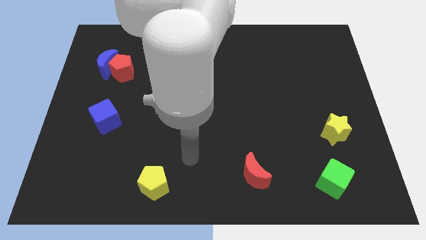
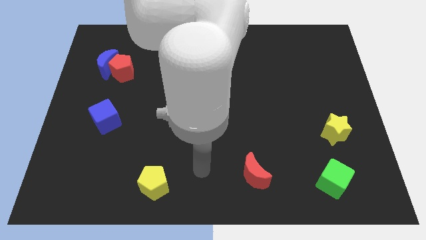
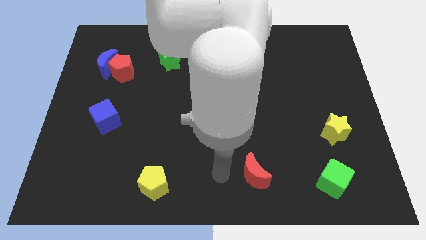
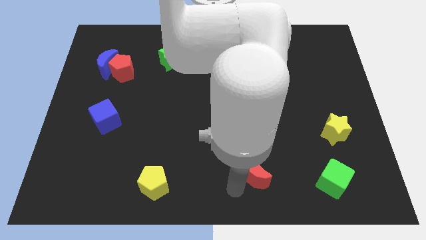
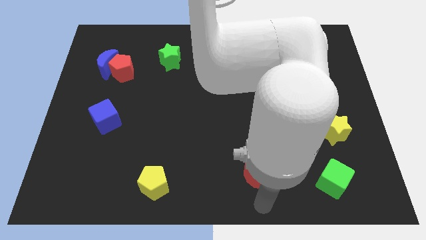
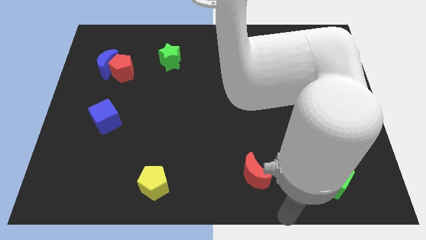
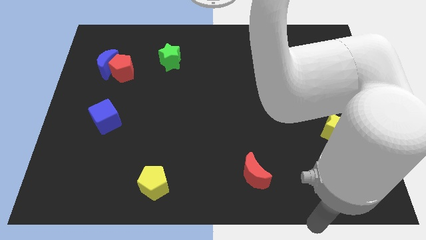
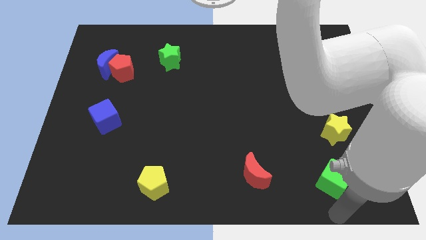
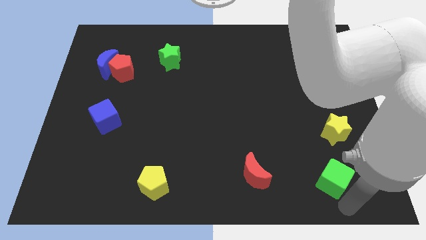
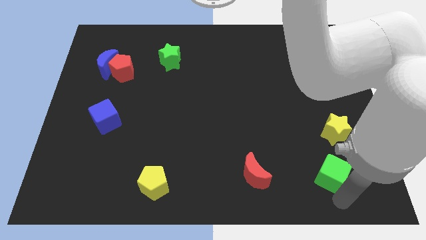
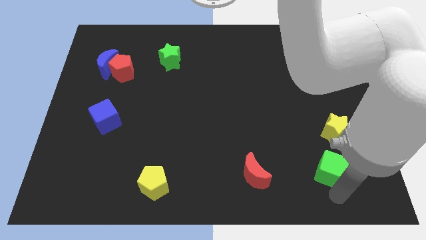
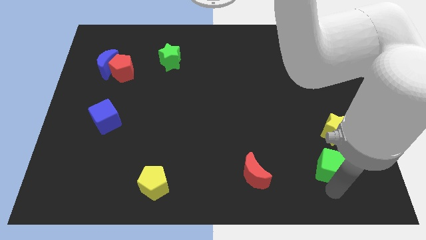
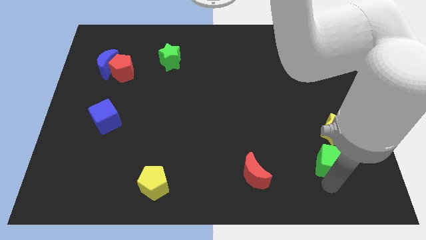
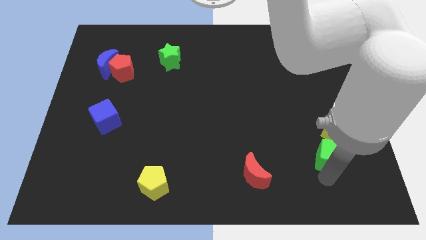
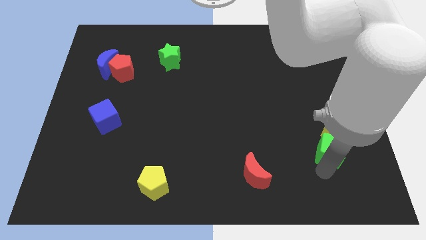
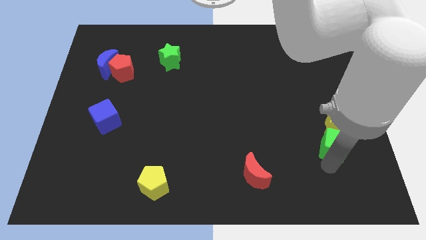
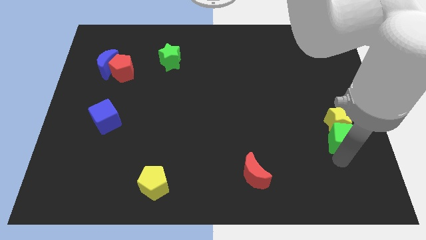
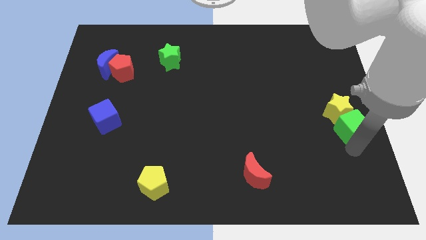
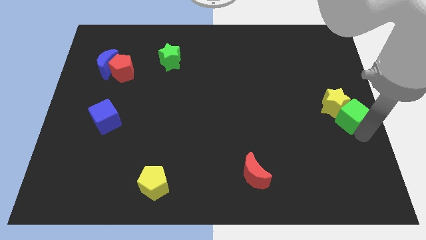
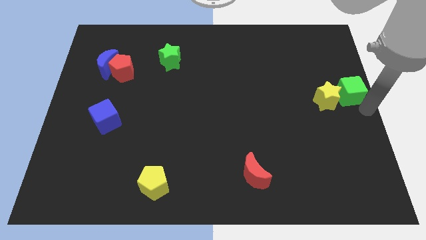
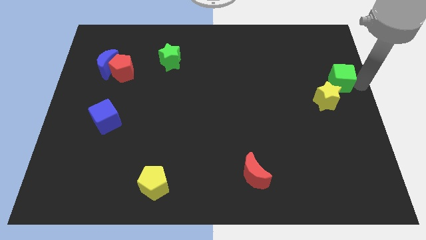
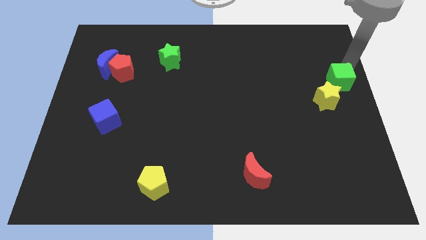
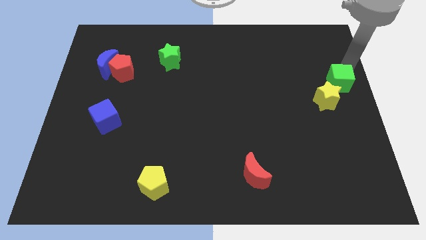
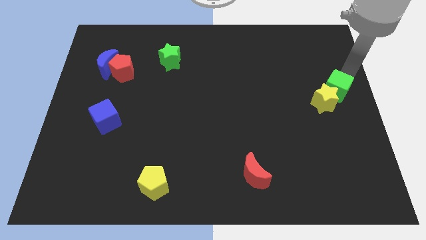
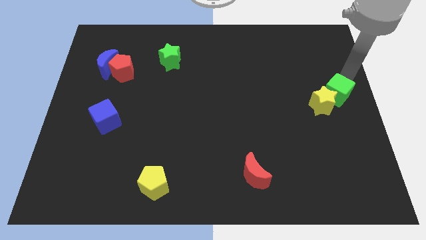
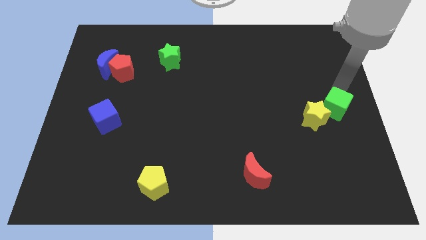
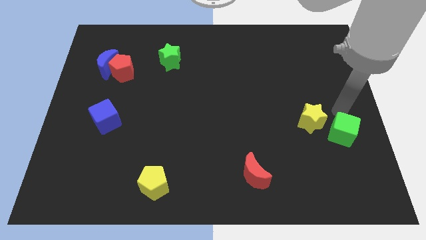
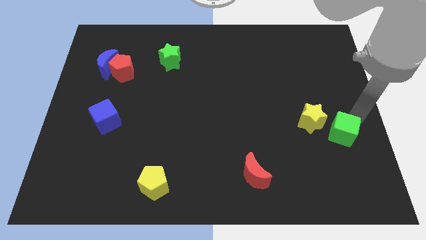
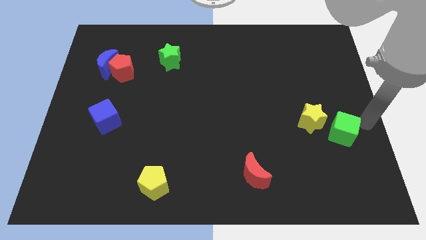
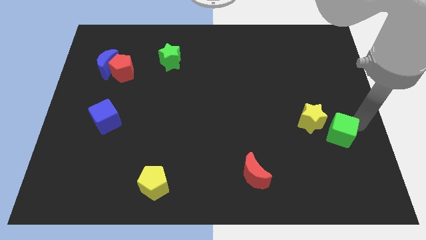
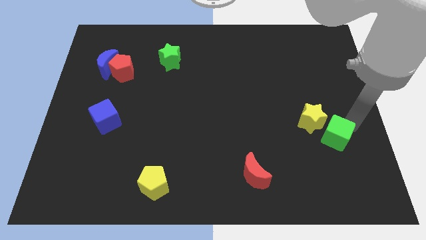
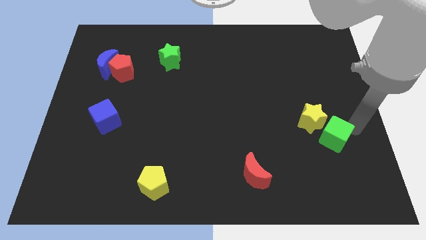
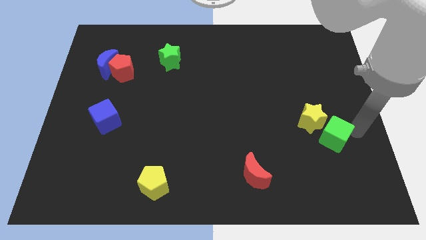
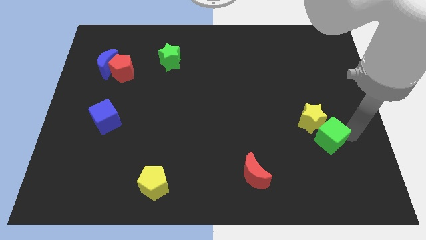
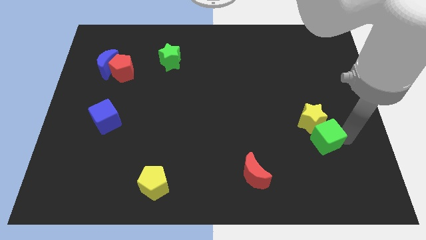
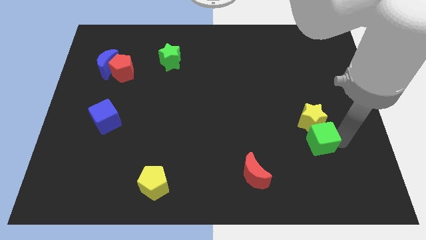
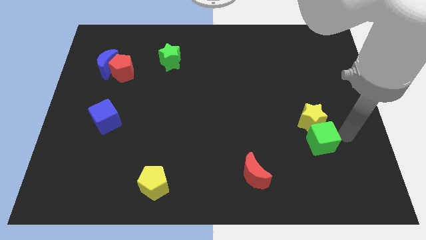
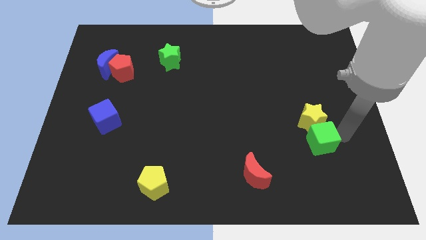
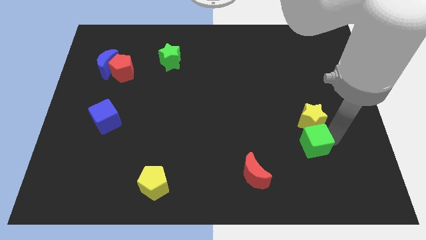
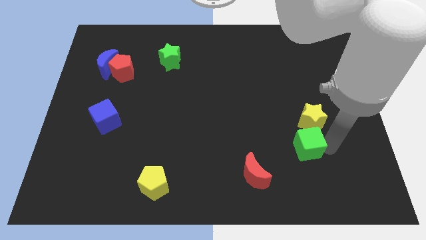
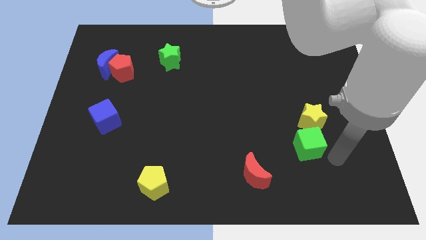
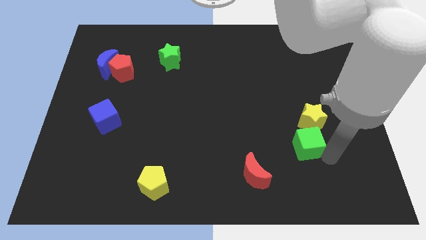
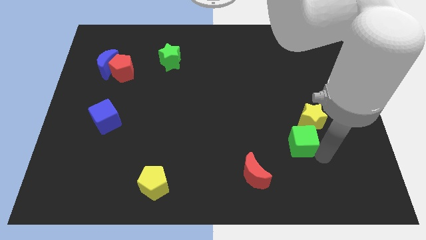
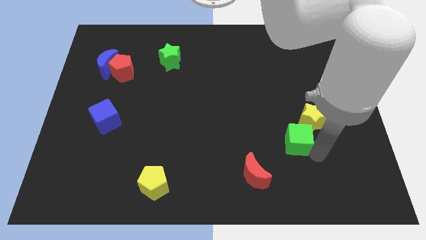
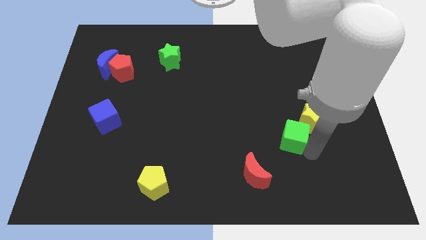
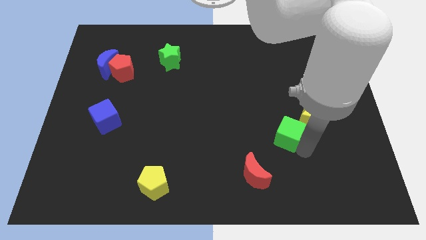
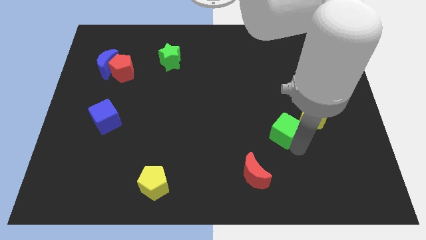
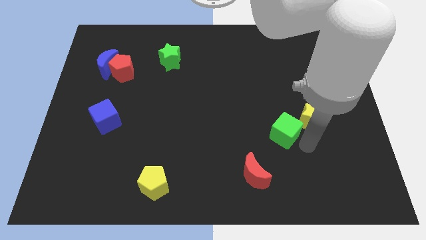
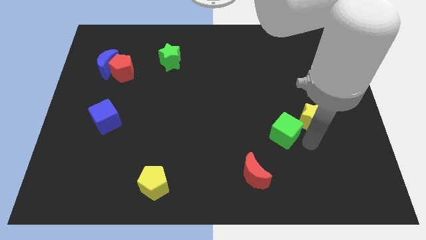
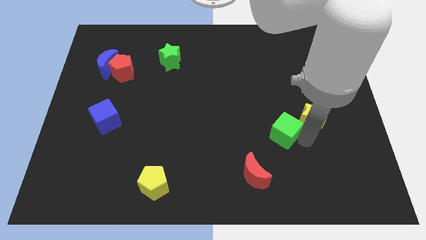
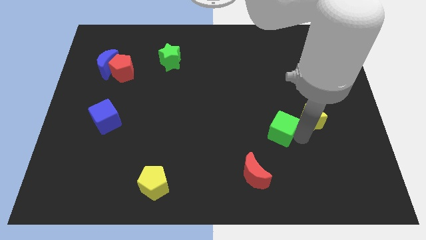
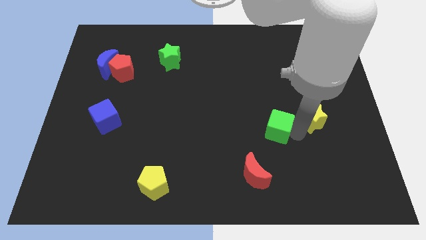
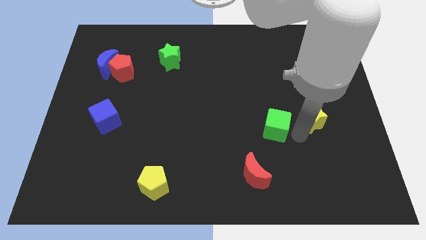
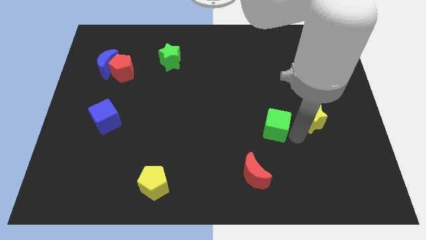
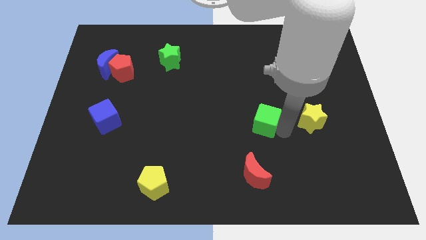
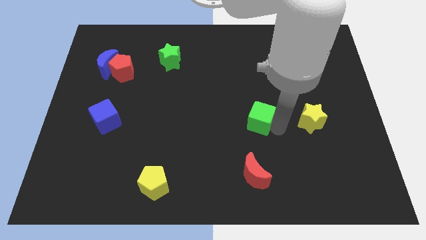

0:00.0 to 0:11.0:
put the green cube to the center
